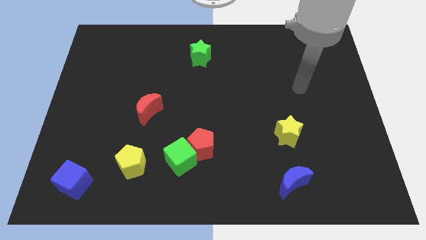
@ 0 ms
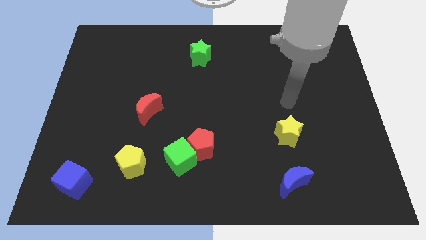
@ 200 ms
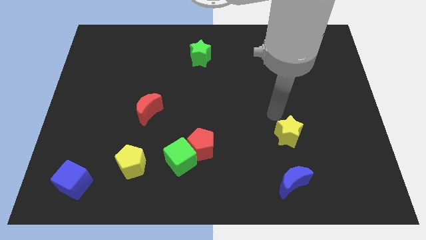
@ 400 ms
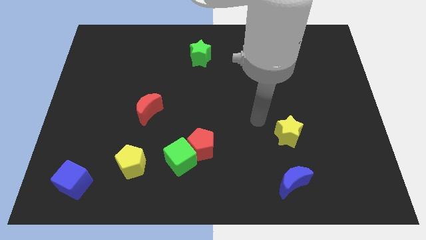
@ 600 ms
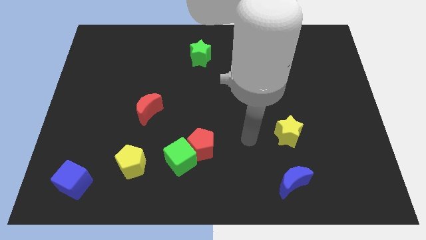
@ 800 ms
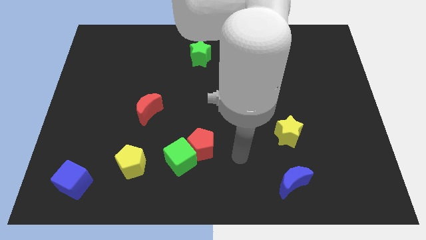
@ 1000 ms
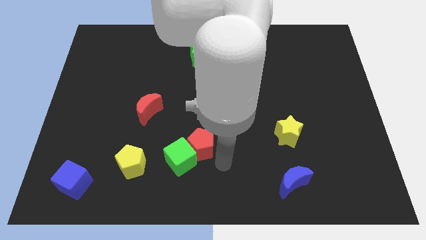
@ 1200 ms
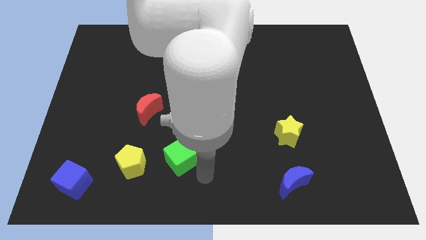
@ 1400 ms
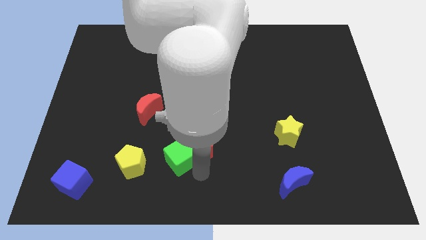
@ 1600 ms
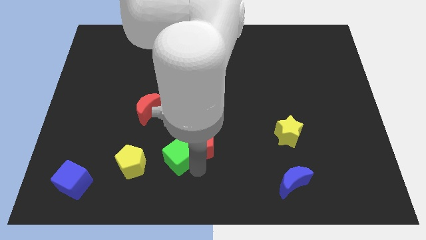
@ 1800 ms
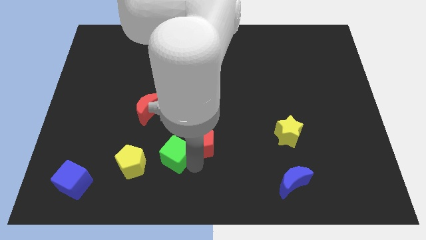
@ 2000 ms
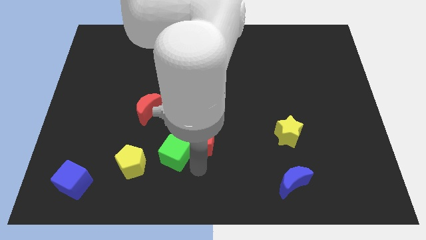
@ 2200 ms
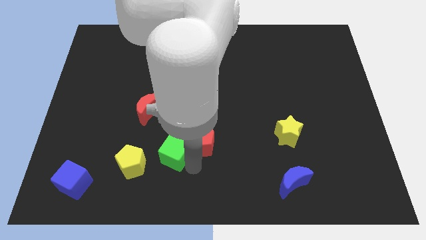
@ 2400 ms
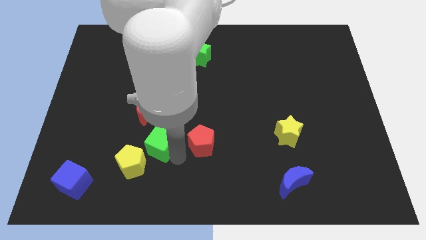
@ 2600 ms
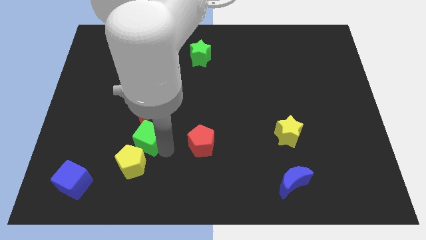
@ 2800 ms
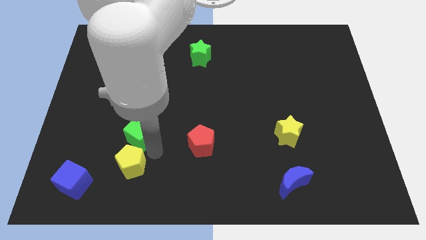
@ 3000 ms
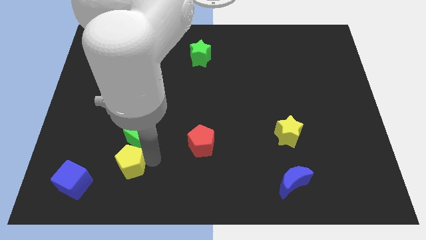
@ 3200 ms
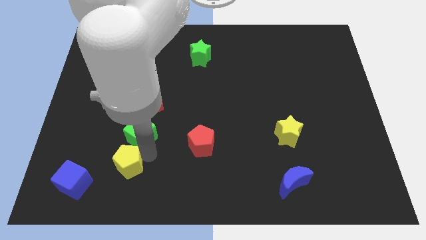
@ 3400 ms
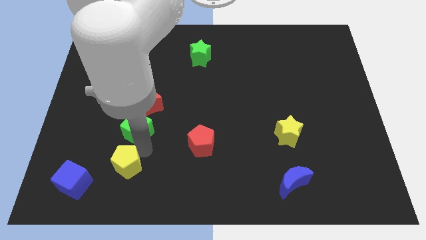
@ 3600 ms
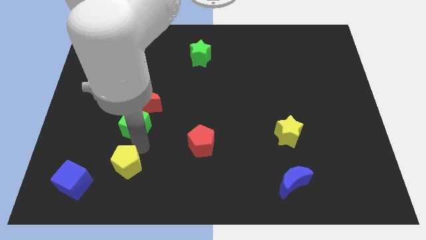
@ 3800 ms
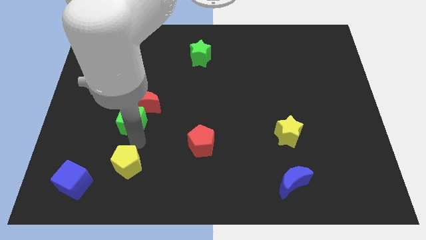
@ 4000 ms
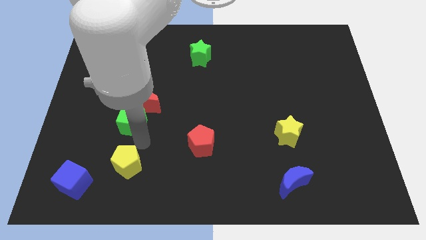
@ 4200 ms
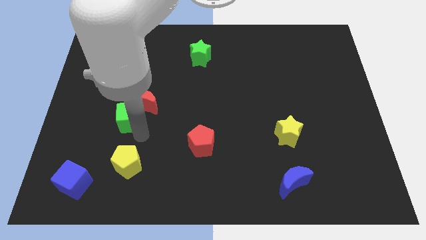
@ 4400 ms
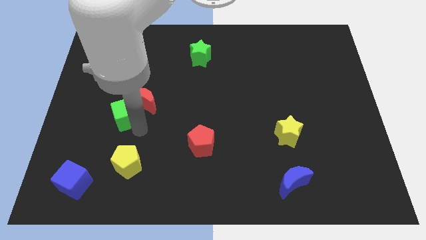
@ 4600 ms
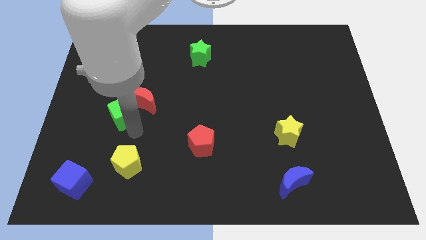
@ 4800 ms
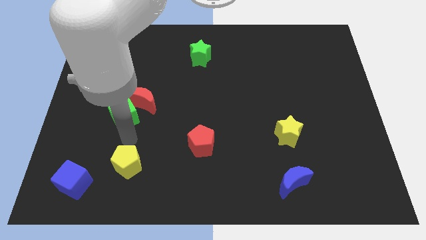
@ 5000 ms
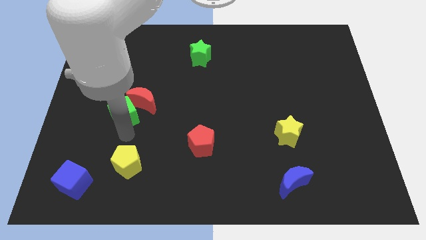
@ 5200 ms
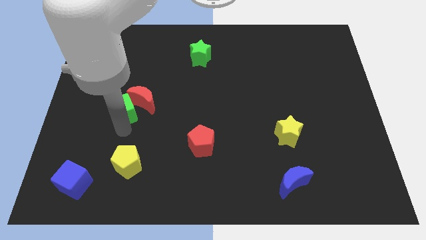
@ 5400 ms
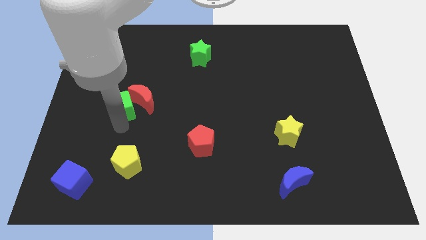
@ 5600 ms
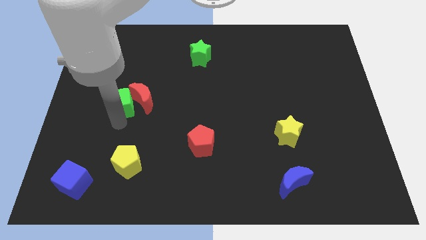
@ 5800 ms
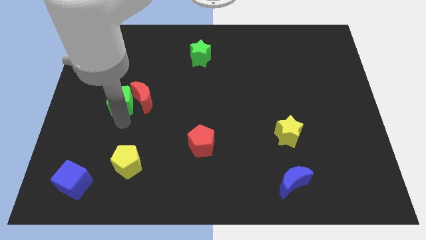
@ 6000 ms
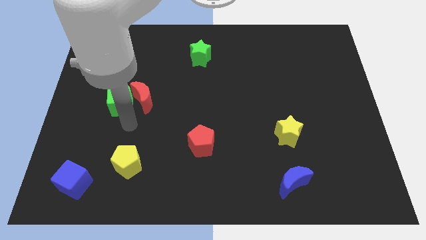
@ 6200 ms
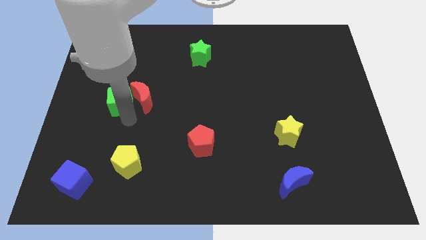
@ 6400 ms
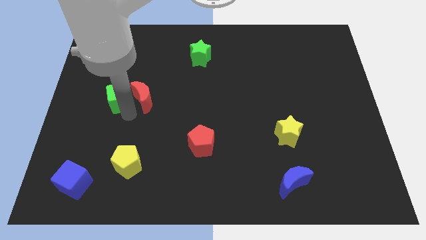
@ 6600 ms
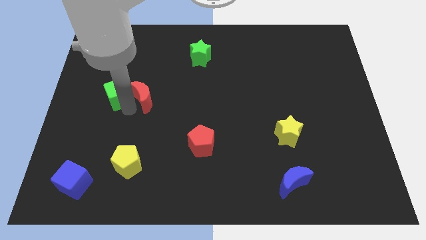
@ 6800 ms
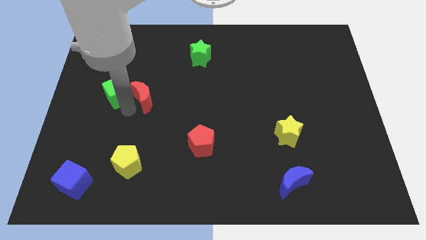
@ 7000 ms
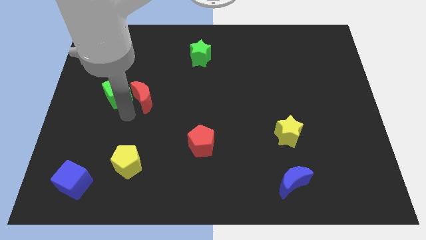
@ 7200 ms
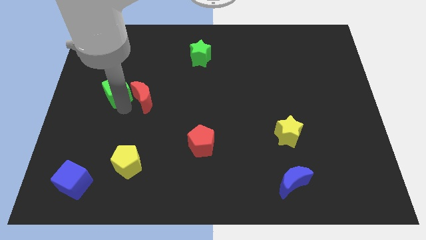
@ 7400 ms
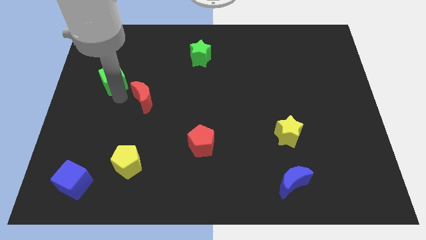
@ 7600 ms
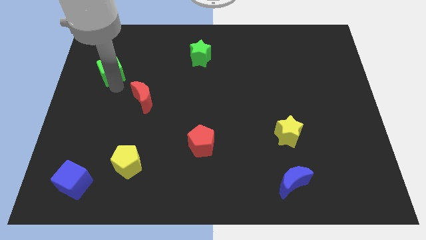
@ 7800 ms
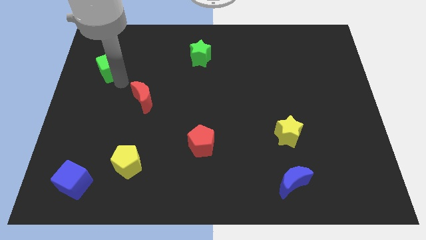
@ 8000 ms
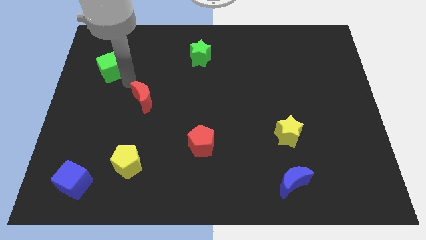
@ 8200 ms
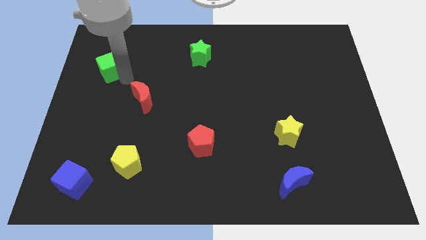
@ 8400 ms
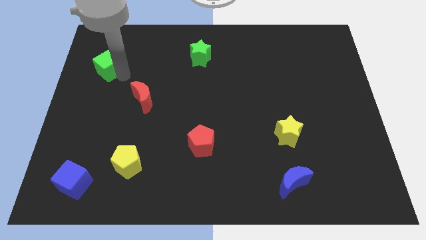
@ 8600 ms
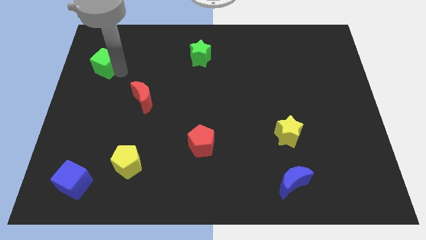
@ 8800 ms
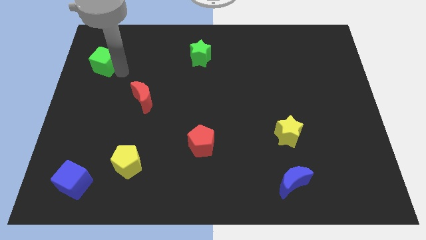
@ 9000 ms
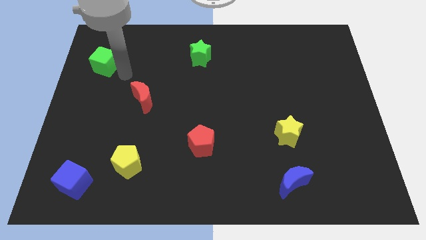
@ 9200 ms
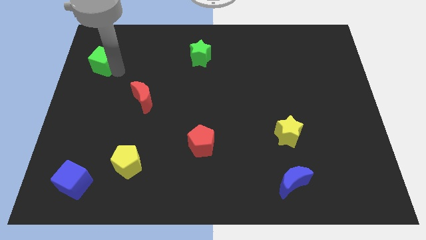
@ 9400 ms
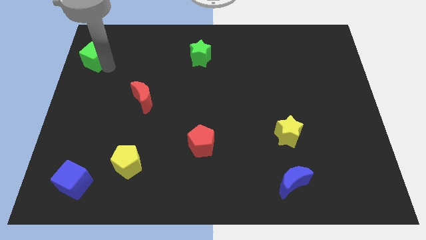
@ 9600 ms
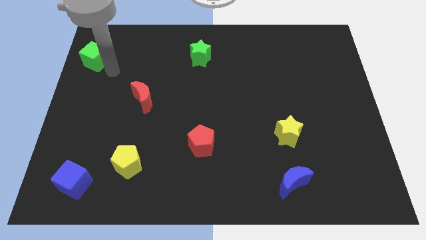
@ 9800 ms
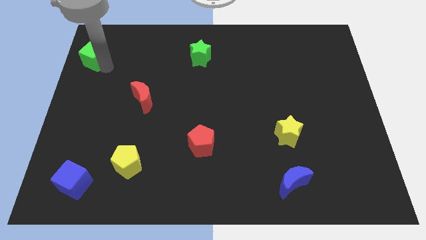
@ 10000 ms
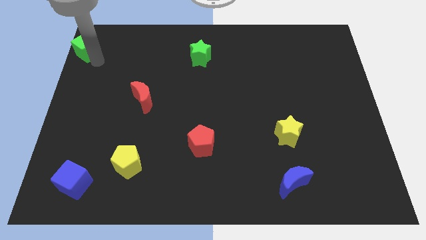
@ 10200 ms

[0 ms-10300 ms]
slide the green cube to the upper left corner

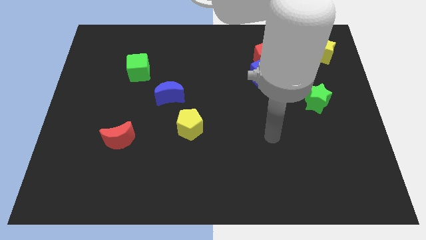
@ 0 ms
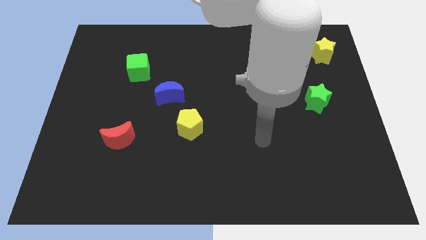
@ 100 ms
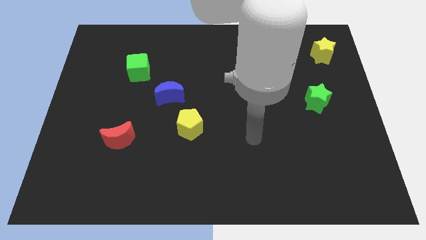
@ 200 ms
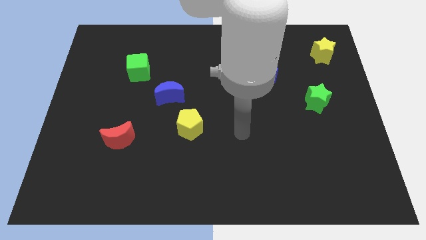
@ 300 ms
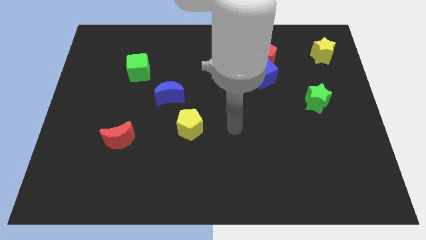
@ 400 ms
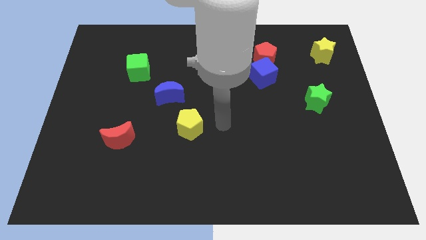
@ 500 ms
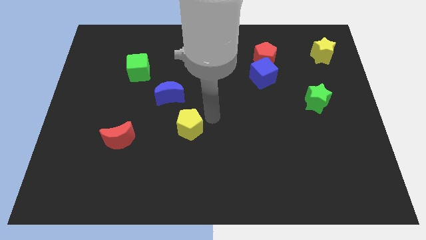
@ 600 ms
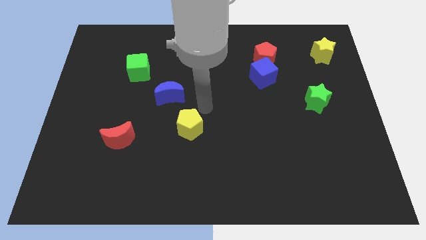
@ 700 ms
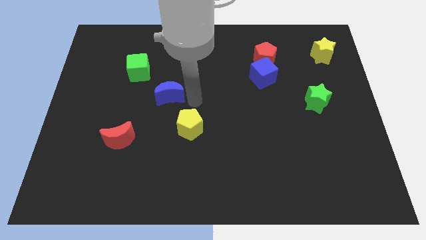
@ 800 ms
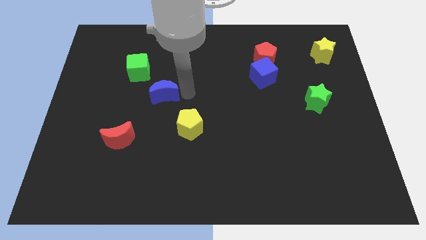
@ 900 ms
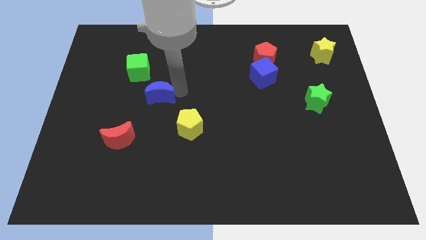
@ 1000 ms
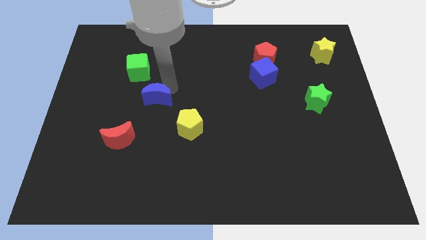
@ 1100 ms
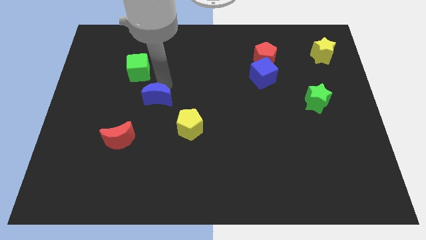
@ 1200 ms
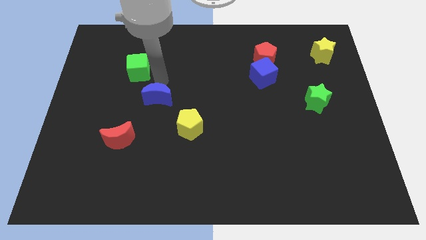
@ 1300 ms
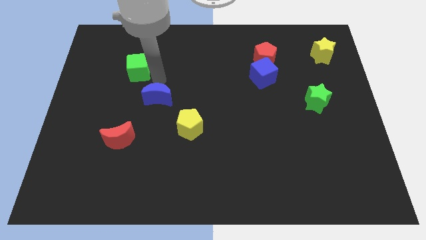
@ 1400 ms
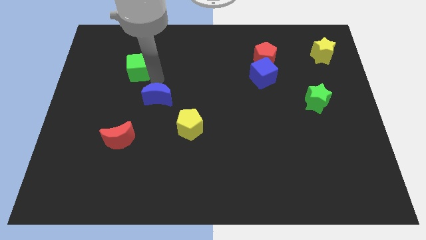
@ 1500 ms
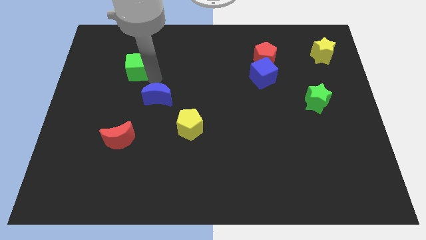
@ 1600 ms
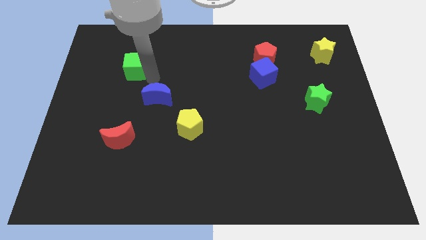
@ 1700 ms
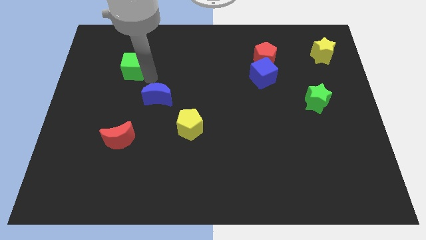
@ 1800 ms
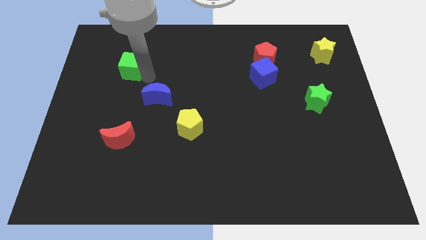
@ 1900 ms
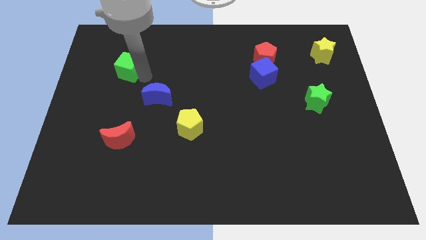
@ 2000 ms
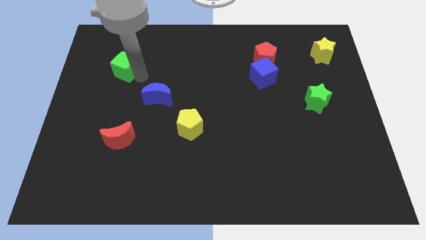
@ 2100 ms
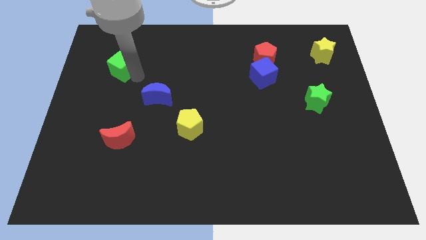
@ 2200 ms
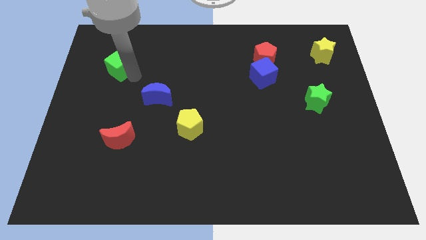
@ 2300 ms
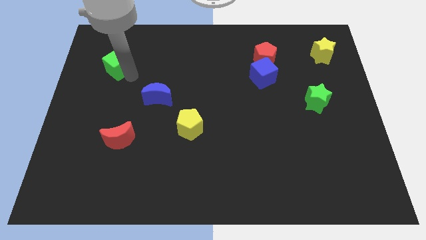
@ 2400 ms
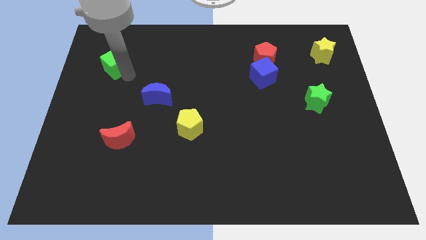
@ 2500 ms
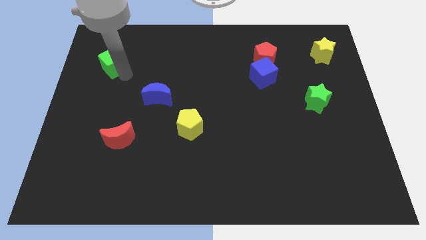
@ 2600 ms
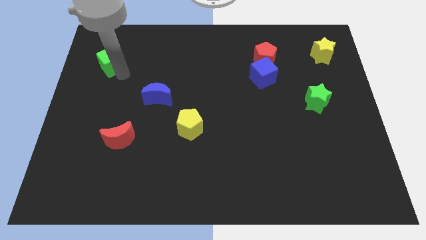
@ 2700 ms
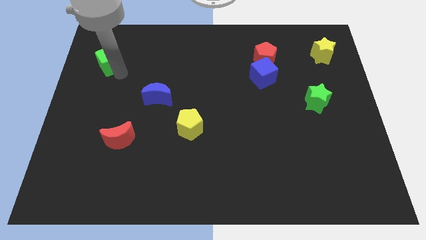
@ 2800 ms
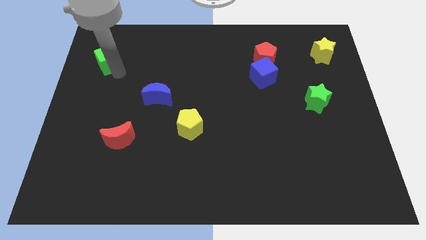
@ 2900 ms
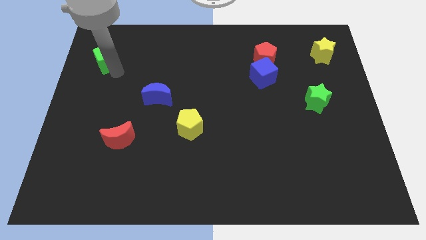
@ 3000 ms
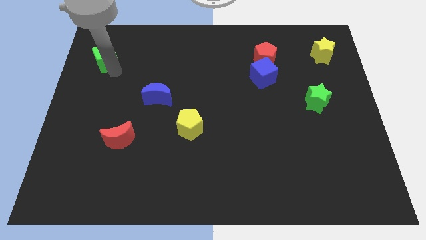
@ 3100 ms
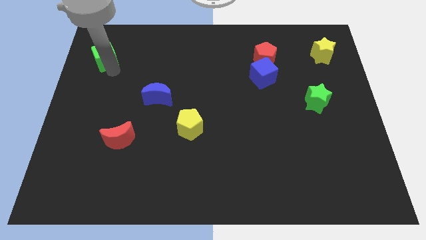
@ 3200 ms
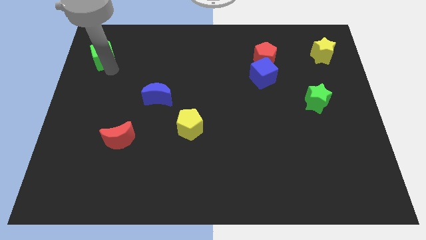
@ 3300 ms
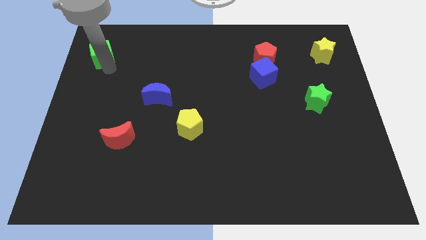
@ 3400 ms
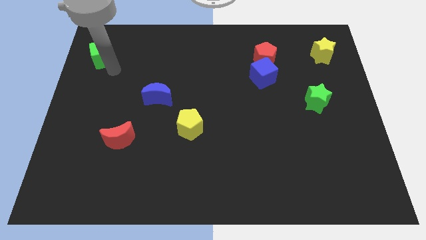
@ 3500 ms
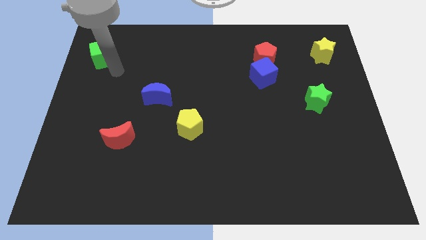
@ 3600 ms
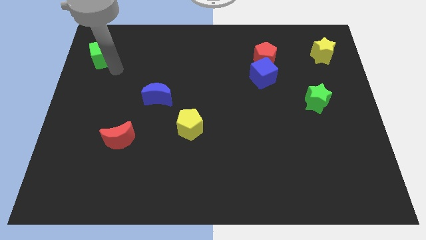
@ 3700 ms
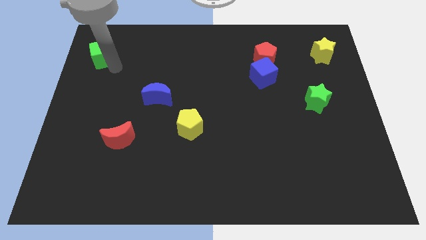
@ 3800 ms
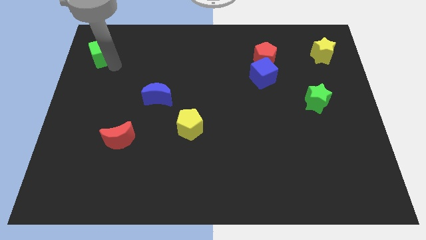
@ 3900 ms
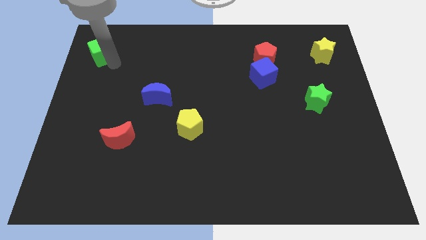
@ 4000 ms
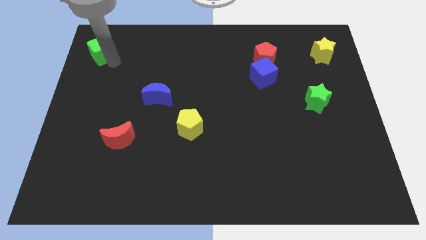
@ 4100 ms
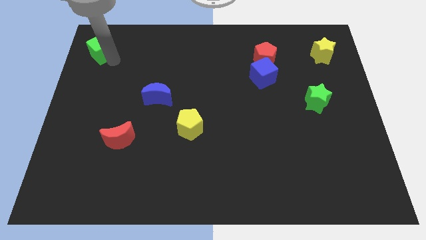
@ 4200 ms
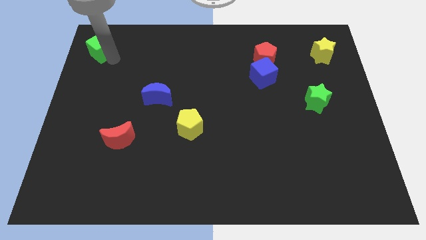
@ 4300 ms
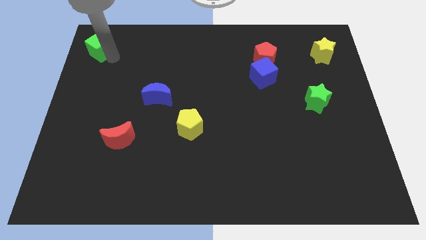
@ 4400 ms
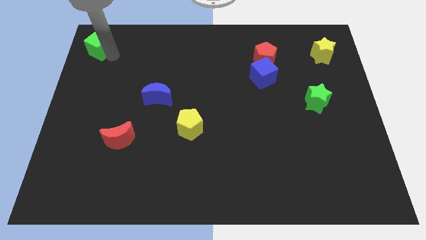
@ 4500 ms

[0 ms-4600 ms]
move the green cube to the top left corner
